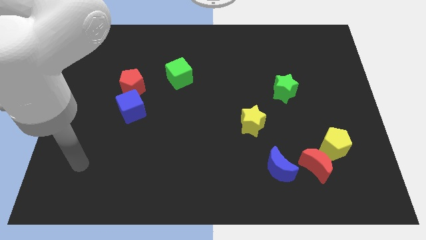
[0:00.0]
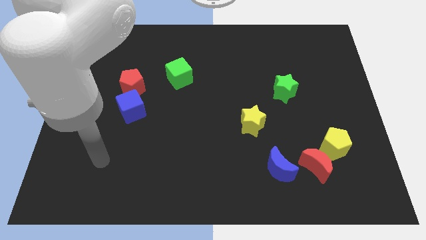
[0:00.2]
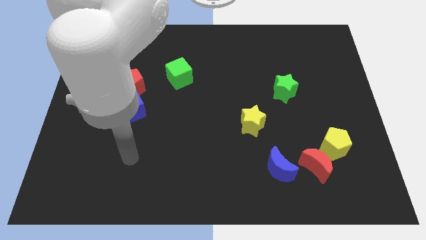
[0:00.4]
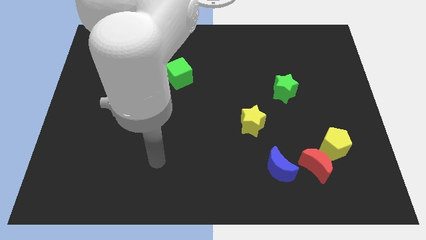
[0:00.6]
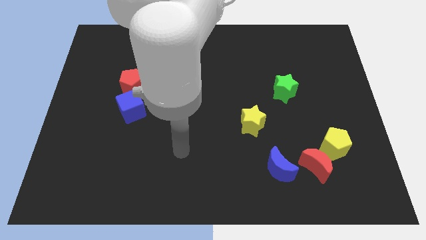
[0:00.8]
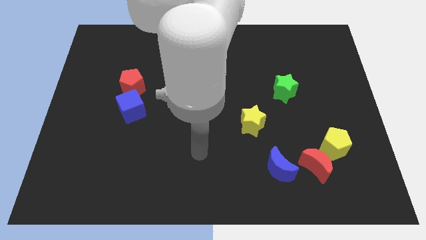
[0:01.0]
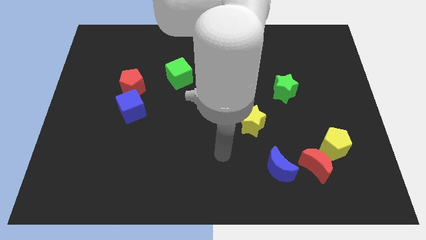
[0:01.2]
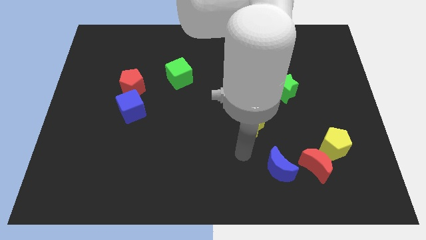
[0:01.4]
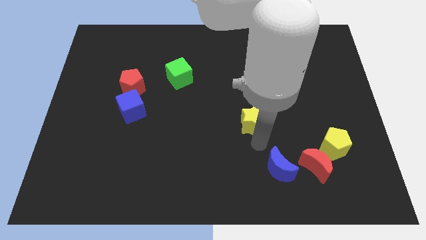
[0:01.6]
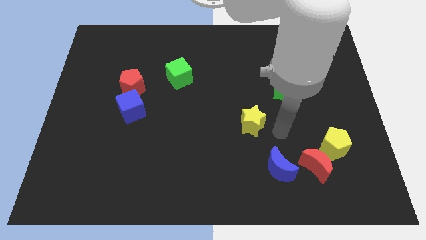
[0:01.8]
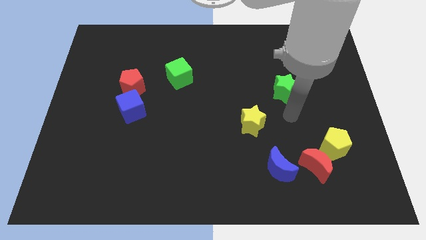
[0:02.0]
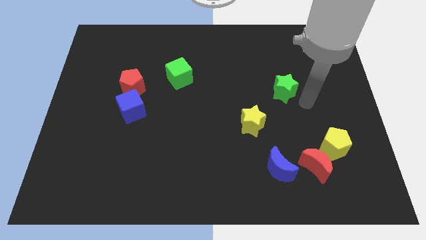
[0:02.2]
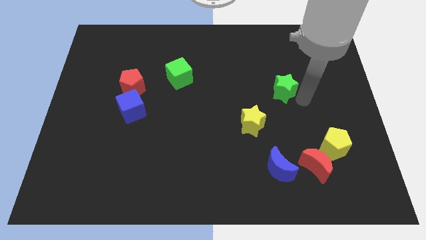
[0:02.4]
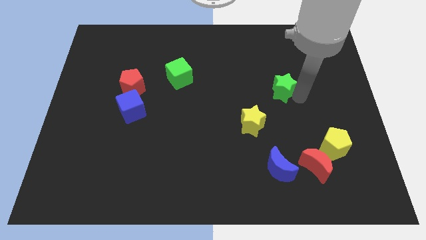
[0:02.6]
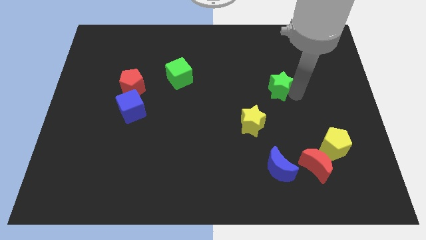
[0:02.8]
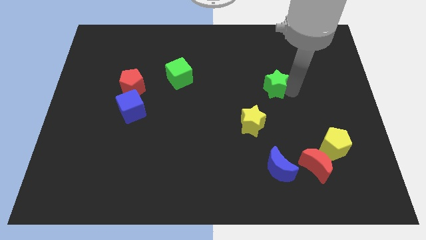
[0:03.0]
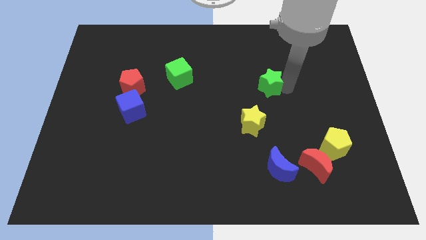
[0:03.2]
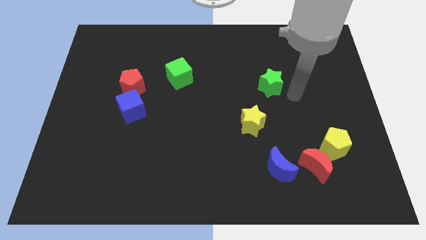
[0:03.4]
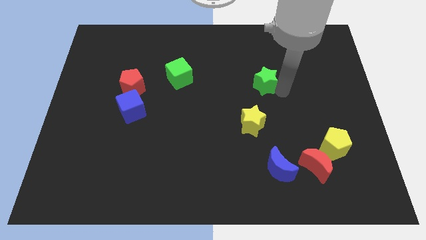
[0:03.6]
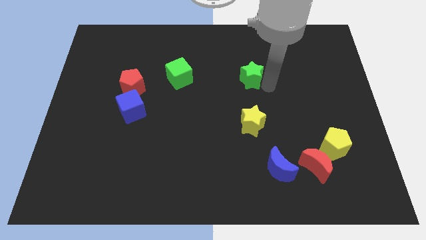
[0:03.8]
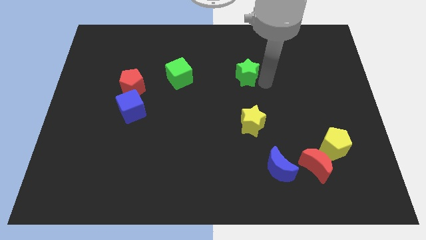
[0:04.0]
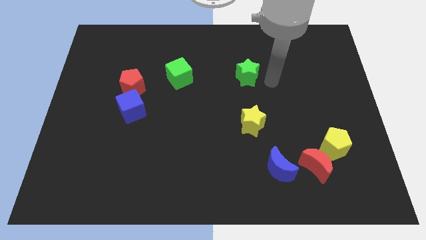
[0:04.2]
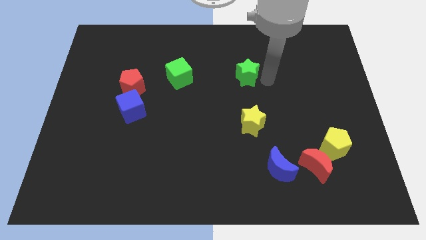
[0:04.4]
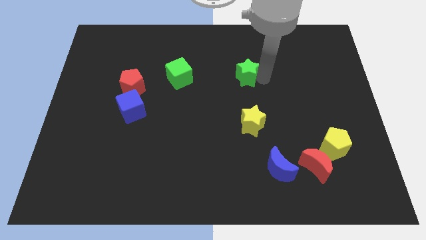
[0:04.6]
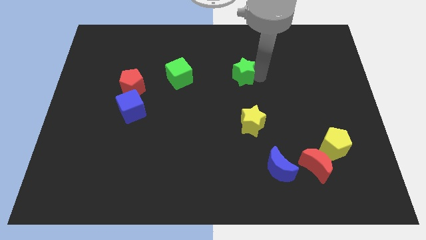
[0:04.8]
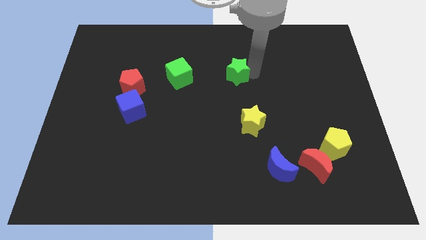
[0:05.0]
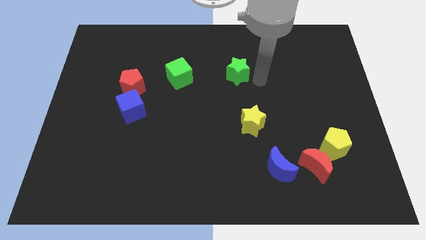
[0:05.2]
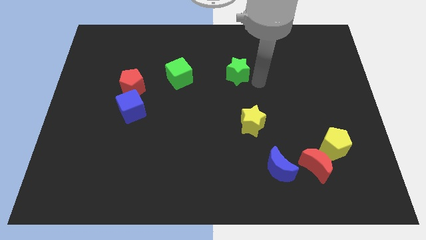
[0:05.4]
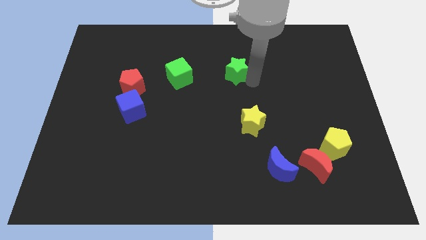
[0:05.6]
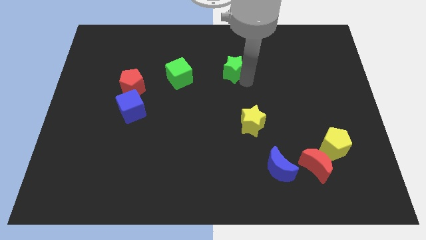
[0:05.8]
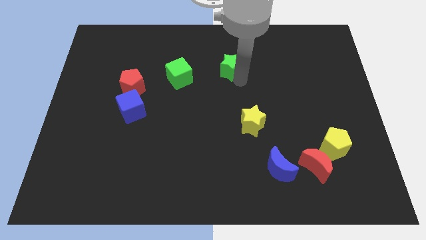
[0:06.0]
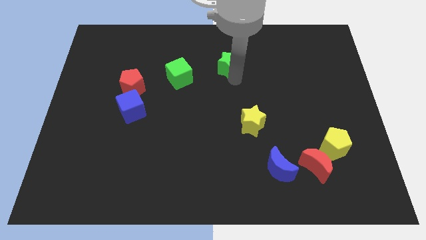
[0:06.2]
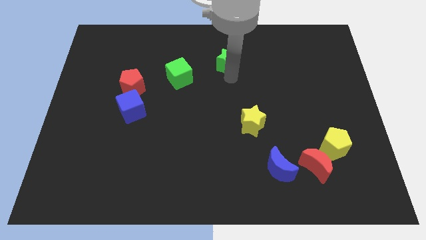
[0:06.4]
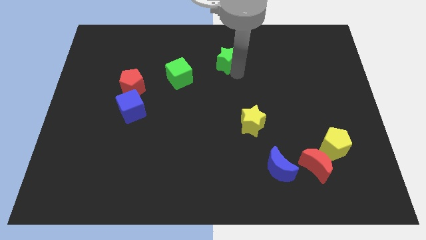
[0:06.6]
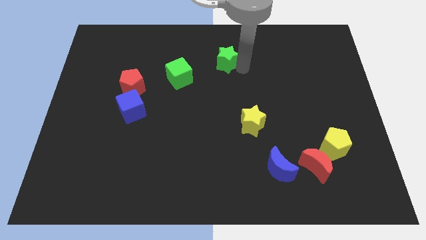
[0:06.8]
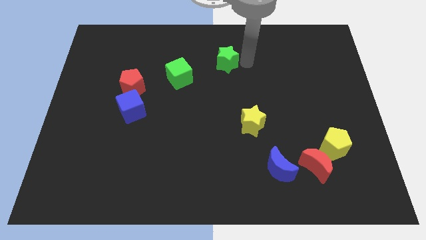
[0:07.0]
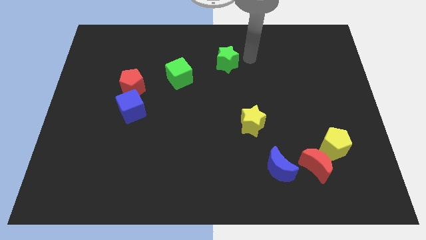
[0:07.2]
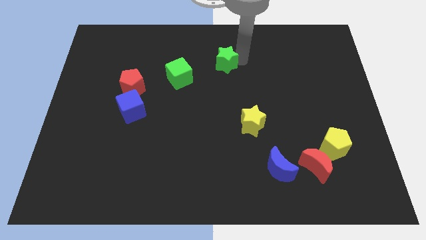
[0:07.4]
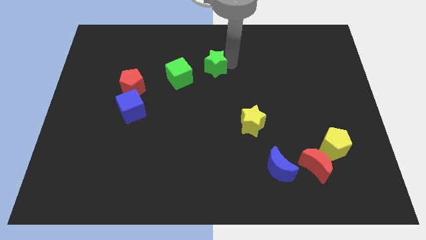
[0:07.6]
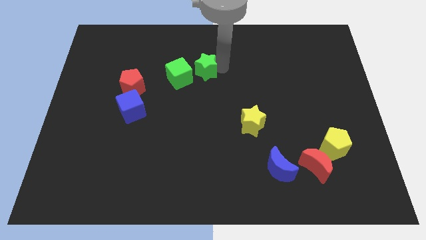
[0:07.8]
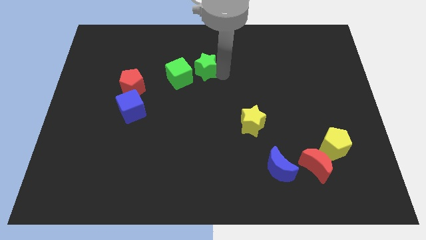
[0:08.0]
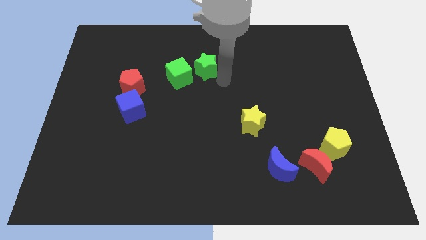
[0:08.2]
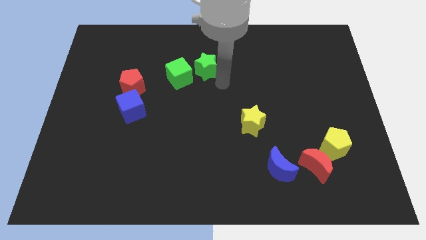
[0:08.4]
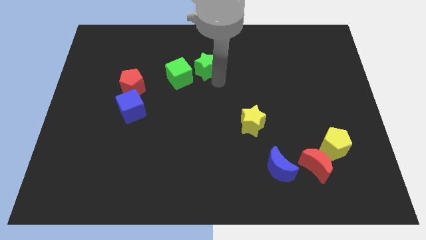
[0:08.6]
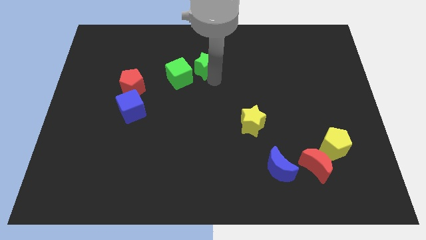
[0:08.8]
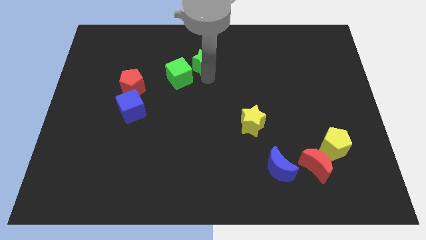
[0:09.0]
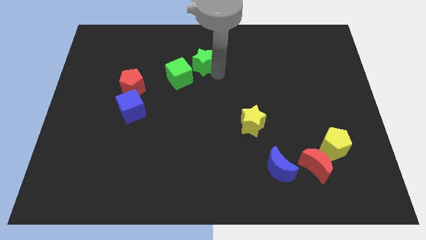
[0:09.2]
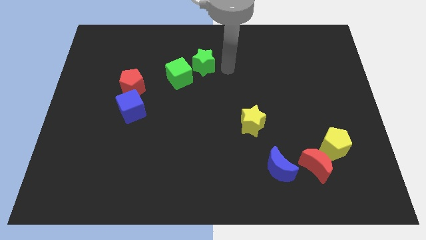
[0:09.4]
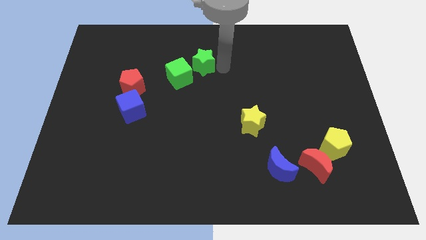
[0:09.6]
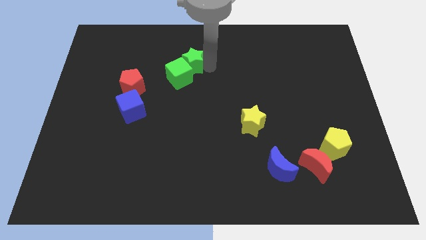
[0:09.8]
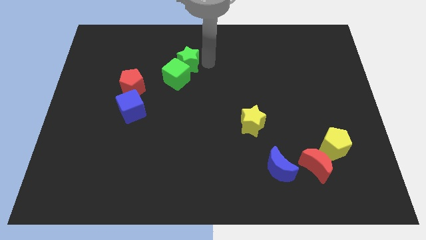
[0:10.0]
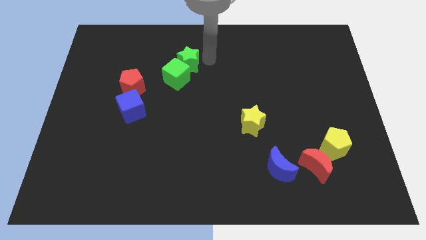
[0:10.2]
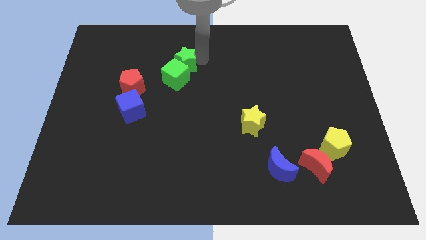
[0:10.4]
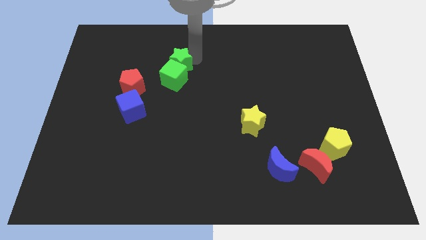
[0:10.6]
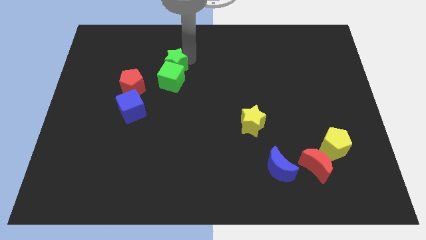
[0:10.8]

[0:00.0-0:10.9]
move the green star to the top right side of the red pentagon

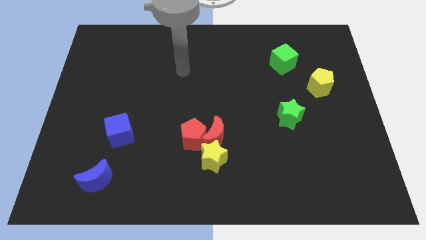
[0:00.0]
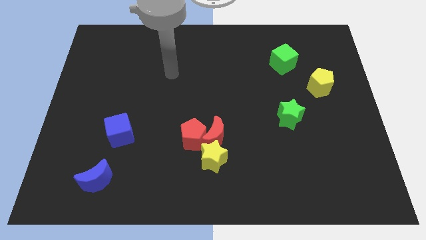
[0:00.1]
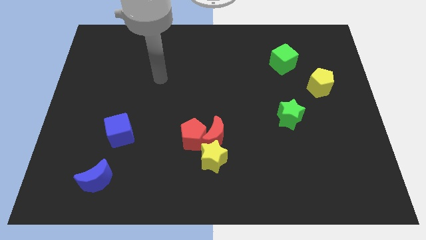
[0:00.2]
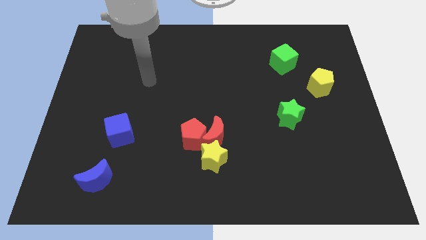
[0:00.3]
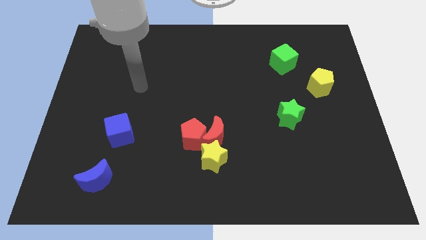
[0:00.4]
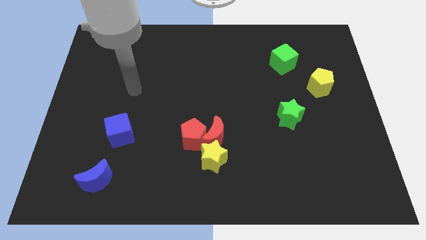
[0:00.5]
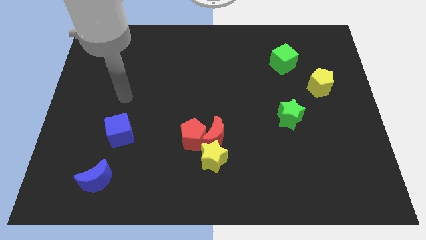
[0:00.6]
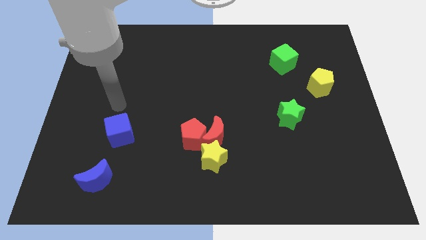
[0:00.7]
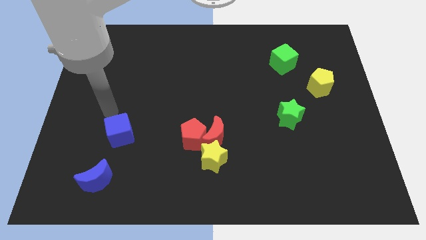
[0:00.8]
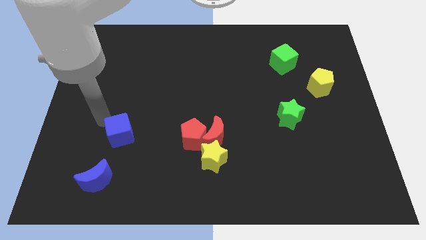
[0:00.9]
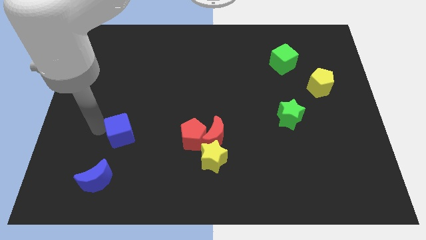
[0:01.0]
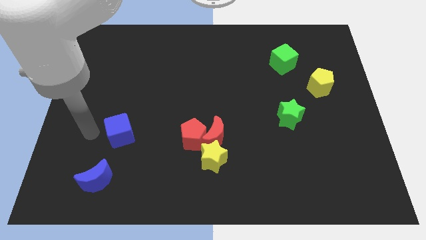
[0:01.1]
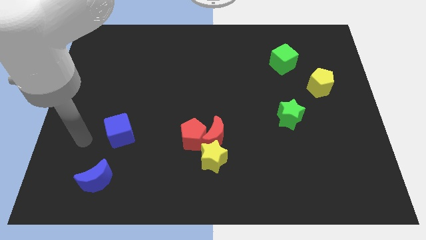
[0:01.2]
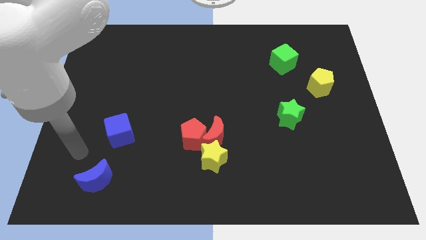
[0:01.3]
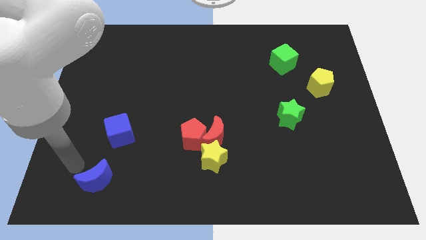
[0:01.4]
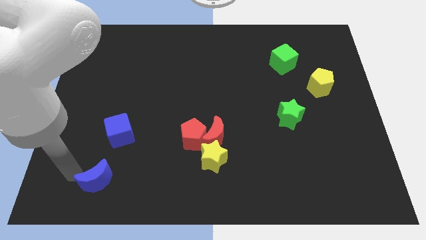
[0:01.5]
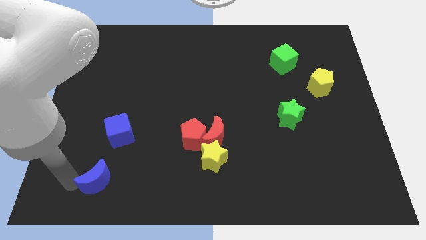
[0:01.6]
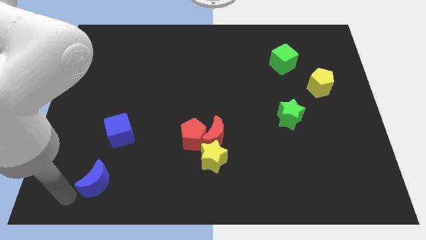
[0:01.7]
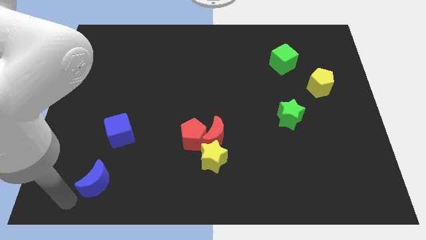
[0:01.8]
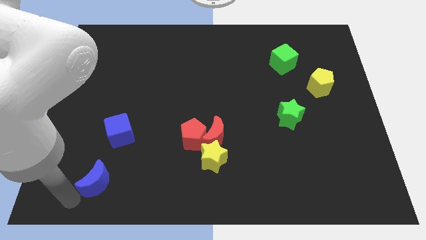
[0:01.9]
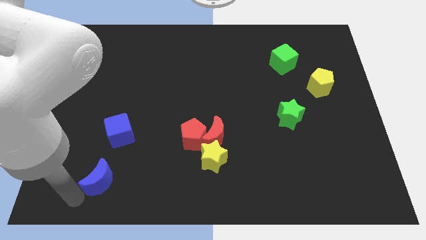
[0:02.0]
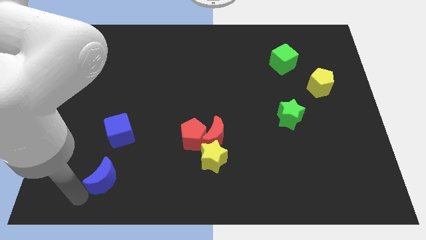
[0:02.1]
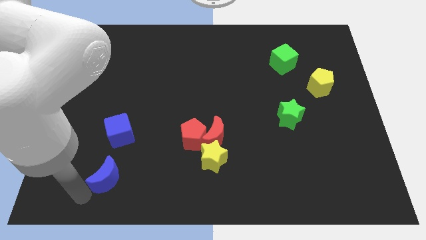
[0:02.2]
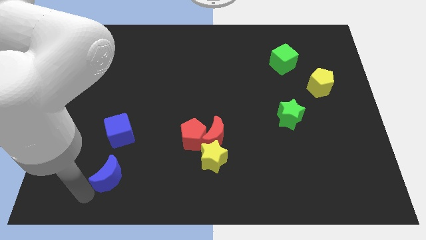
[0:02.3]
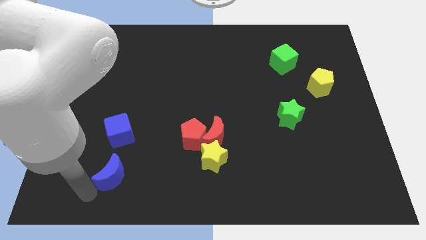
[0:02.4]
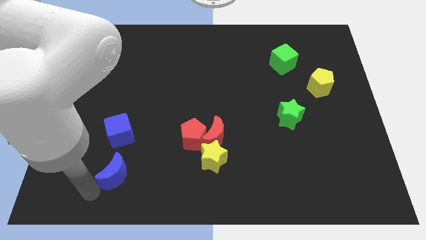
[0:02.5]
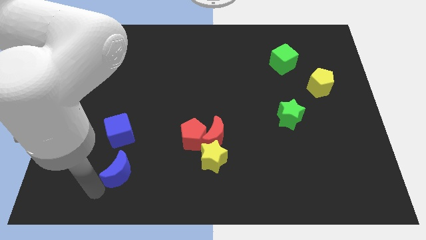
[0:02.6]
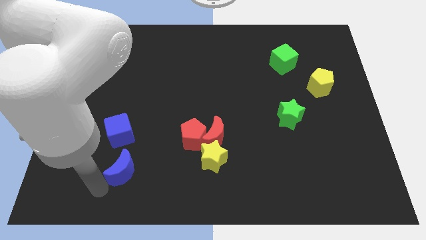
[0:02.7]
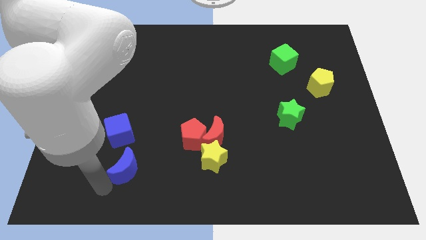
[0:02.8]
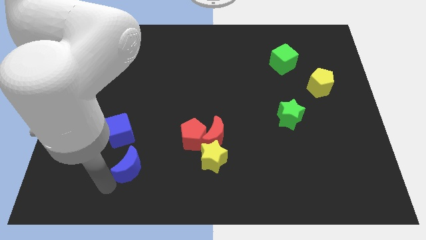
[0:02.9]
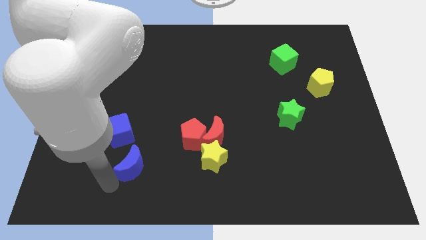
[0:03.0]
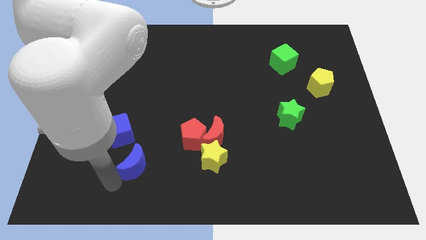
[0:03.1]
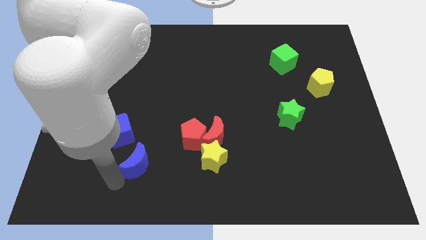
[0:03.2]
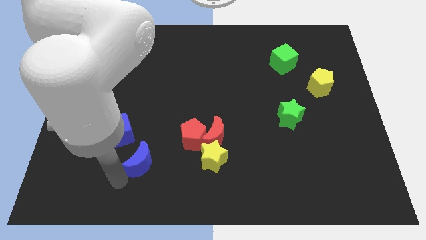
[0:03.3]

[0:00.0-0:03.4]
push the blue moon diagonally down and to the left of the red pentagon
